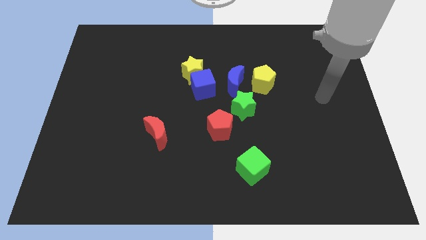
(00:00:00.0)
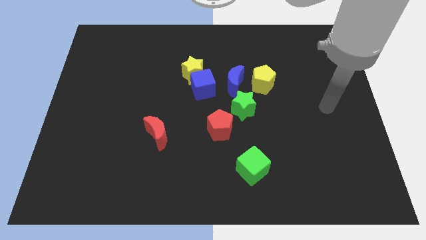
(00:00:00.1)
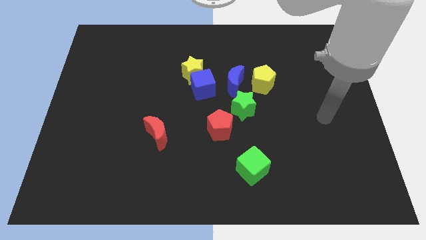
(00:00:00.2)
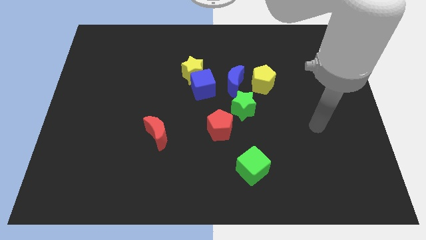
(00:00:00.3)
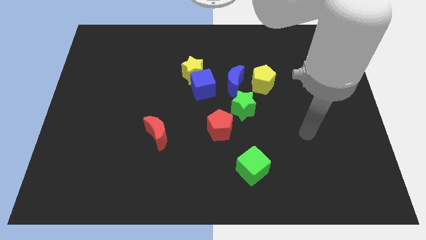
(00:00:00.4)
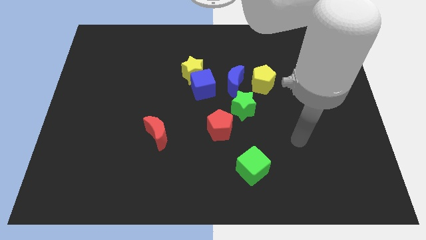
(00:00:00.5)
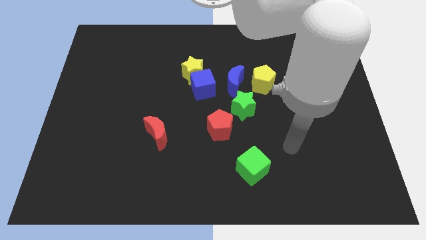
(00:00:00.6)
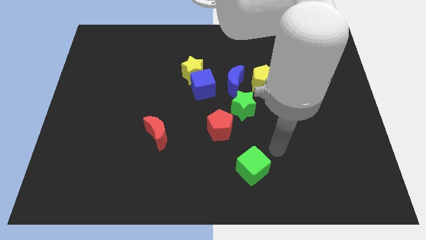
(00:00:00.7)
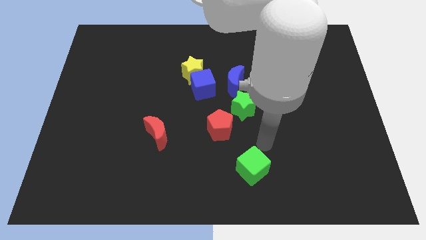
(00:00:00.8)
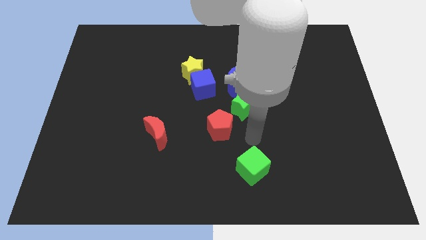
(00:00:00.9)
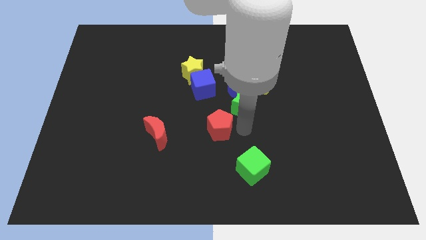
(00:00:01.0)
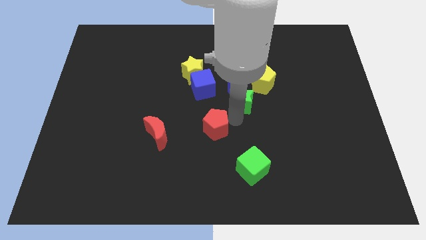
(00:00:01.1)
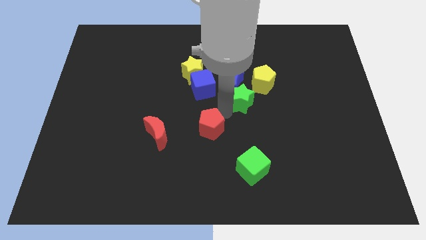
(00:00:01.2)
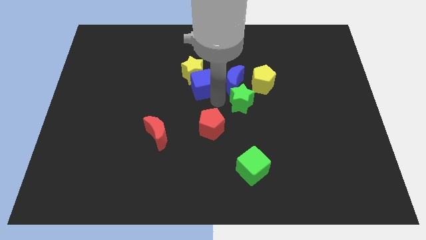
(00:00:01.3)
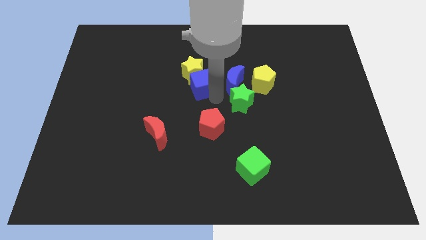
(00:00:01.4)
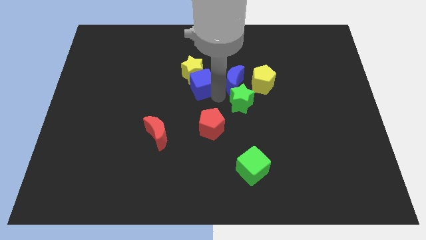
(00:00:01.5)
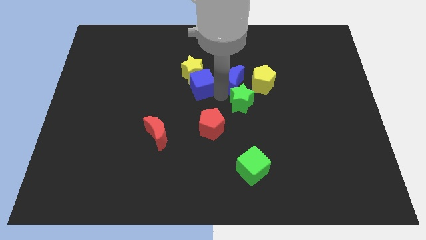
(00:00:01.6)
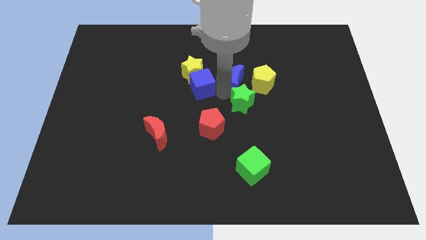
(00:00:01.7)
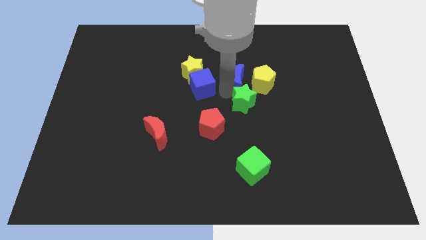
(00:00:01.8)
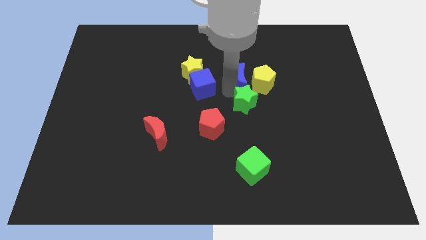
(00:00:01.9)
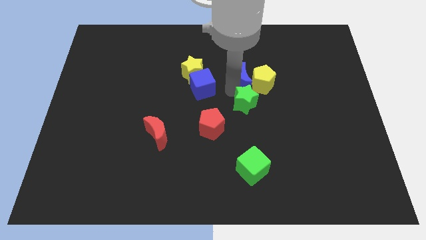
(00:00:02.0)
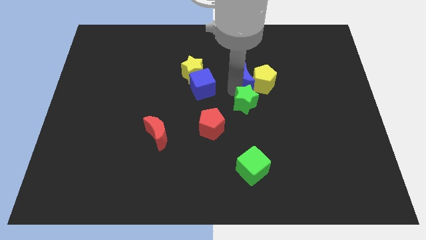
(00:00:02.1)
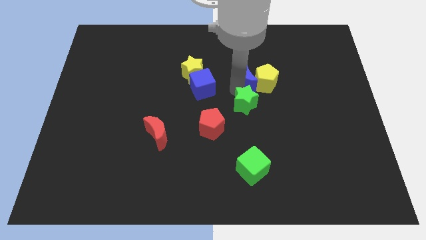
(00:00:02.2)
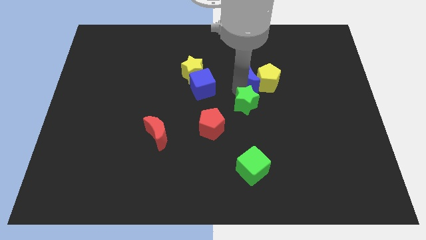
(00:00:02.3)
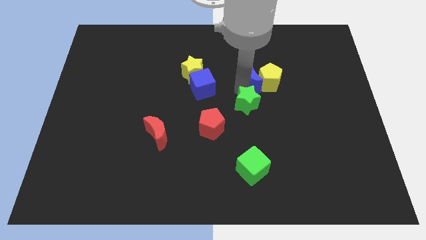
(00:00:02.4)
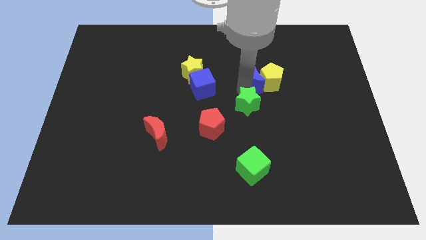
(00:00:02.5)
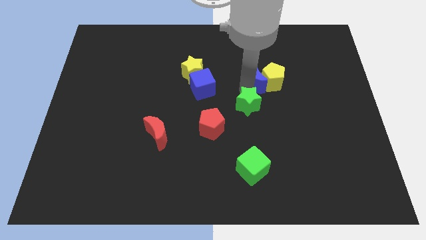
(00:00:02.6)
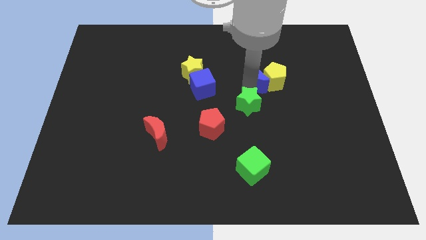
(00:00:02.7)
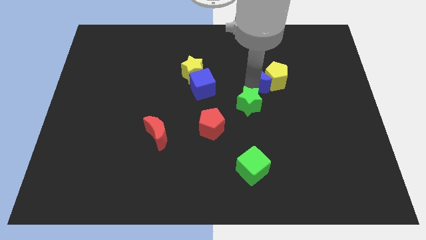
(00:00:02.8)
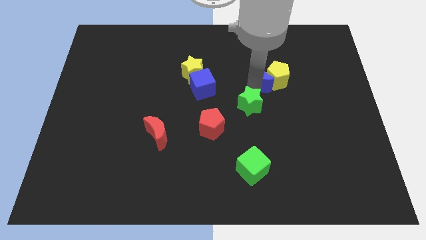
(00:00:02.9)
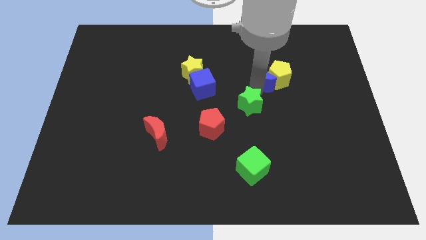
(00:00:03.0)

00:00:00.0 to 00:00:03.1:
slightly push the blue moon right

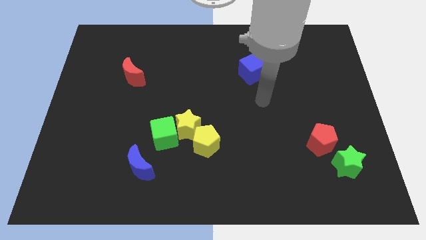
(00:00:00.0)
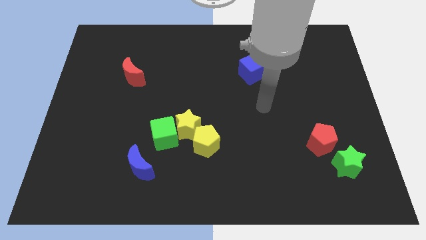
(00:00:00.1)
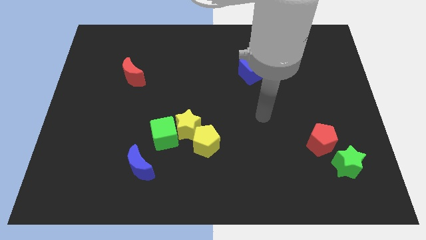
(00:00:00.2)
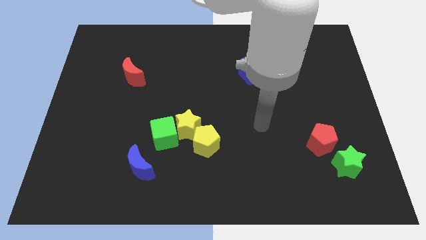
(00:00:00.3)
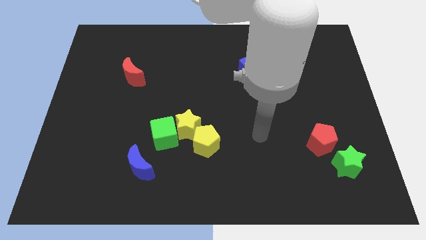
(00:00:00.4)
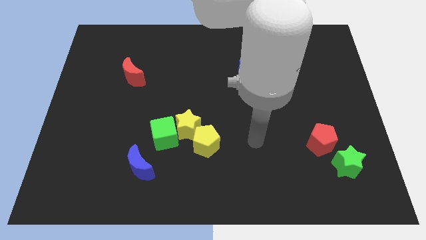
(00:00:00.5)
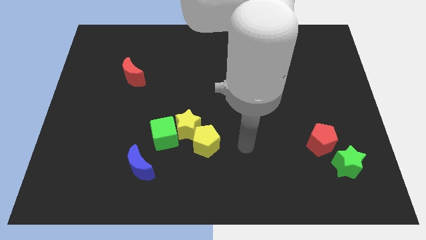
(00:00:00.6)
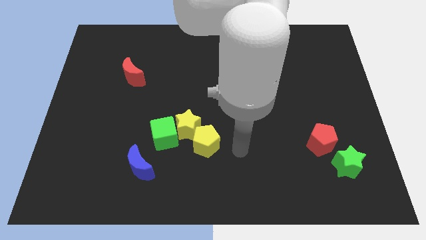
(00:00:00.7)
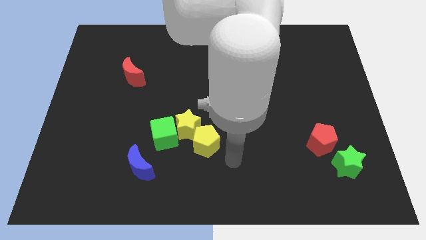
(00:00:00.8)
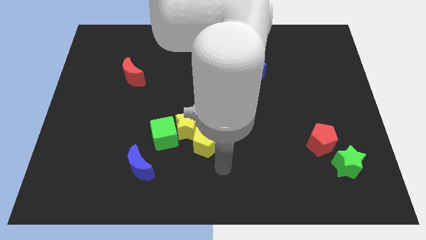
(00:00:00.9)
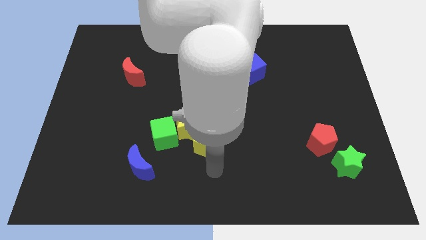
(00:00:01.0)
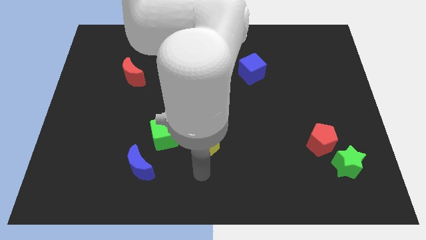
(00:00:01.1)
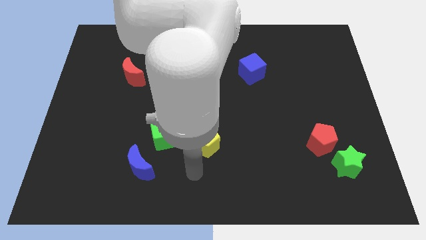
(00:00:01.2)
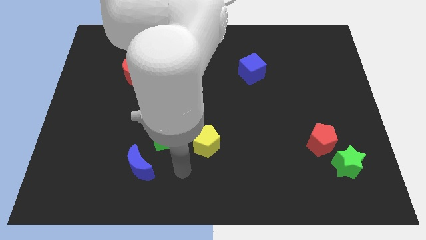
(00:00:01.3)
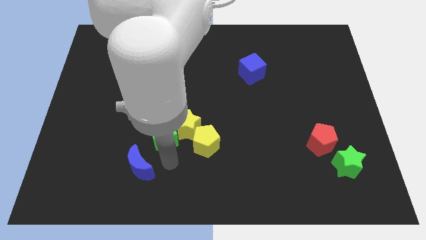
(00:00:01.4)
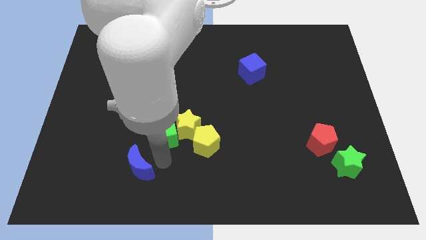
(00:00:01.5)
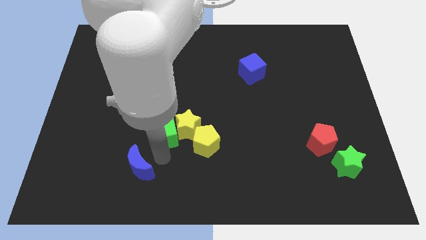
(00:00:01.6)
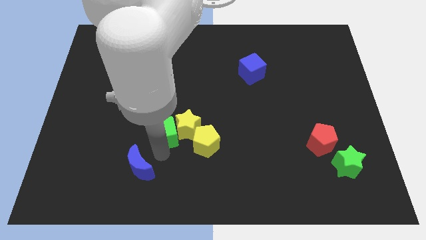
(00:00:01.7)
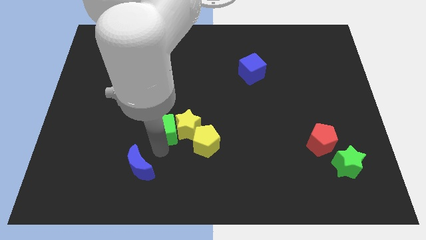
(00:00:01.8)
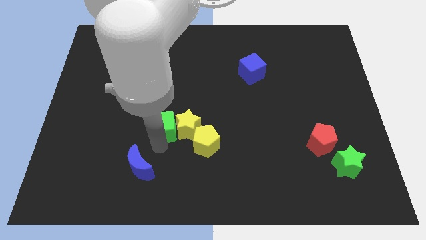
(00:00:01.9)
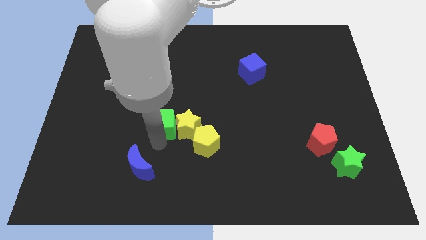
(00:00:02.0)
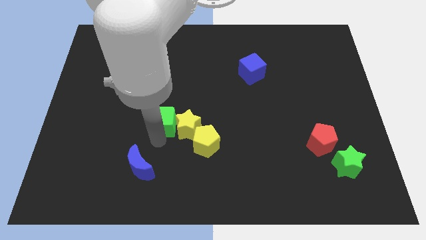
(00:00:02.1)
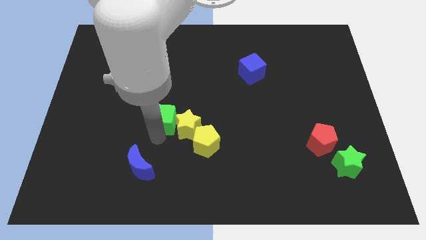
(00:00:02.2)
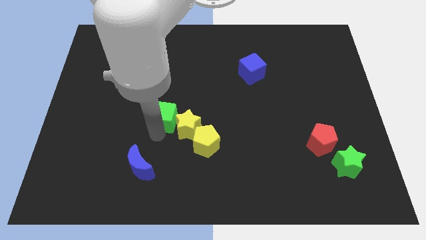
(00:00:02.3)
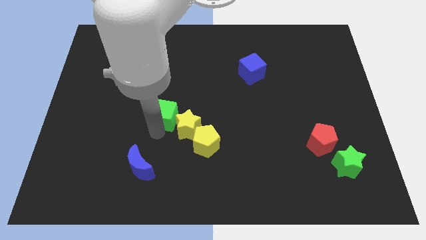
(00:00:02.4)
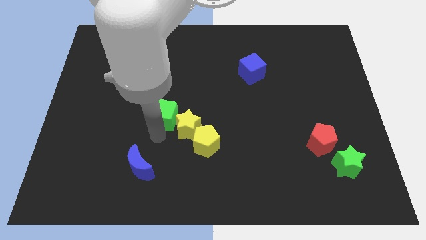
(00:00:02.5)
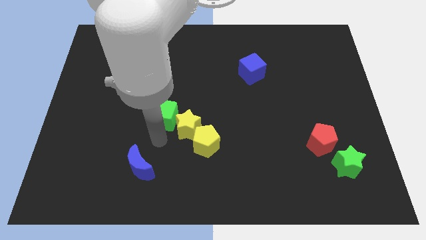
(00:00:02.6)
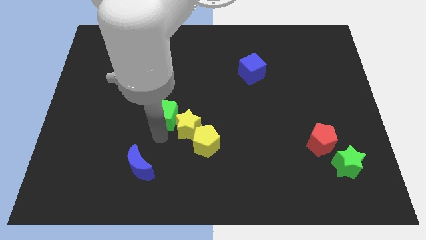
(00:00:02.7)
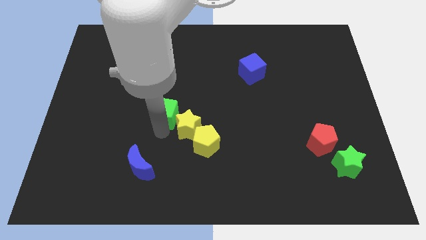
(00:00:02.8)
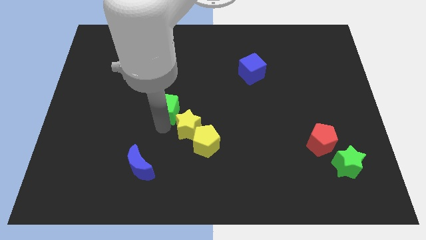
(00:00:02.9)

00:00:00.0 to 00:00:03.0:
slightly move the green cube up

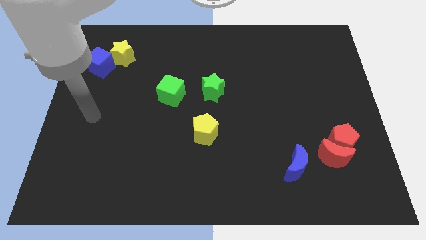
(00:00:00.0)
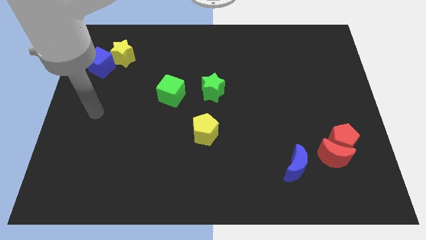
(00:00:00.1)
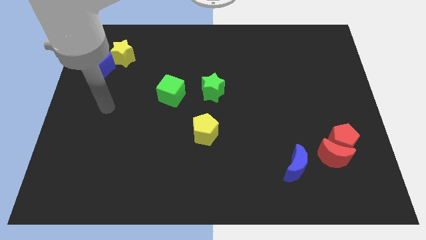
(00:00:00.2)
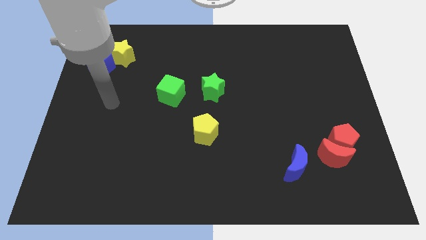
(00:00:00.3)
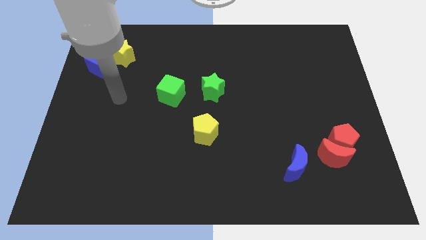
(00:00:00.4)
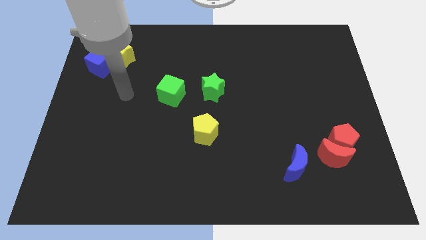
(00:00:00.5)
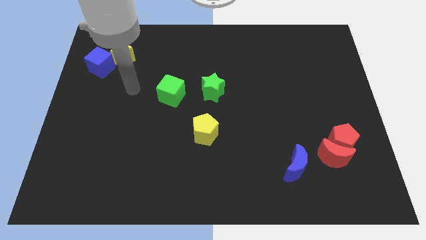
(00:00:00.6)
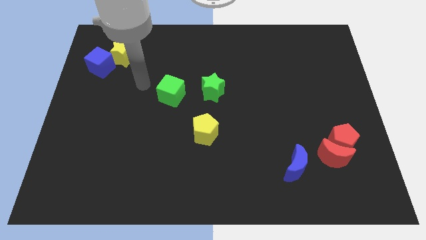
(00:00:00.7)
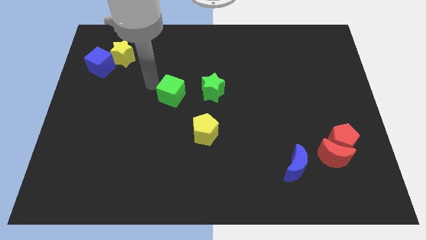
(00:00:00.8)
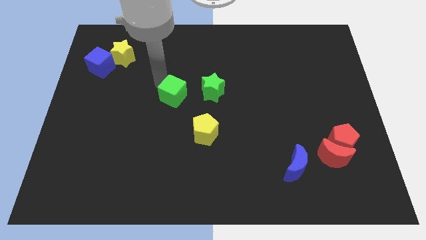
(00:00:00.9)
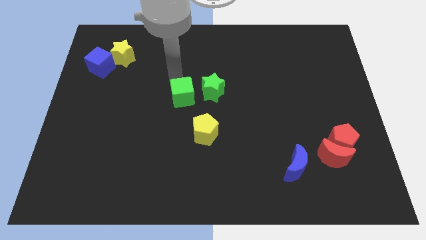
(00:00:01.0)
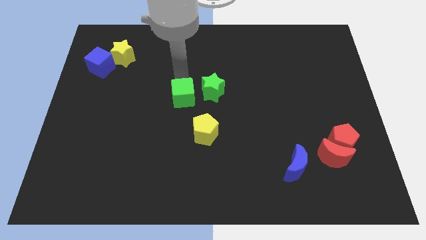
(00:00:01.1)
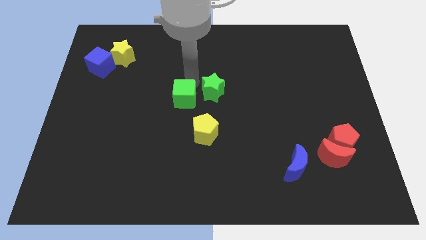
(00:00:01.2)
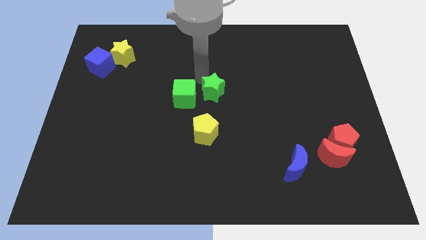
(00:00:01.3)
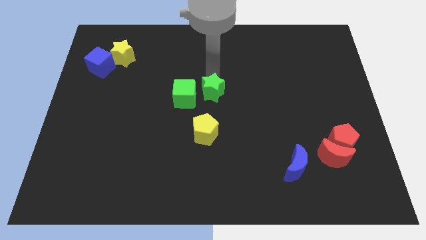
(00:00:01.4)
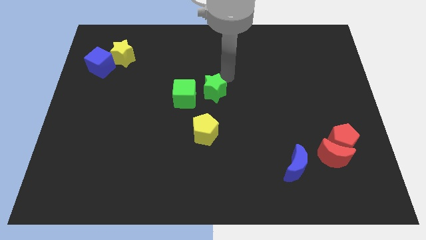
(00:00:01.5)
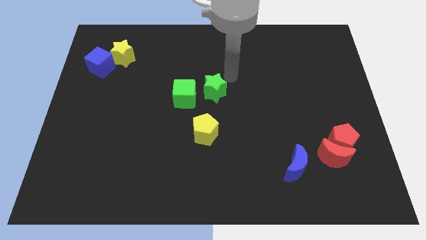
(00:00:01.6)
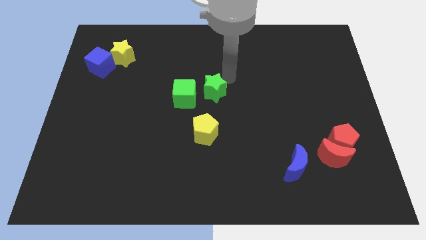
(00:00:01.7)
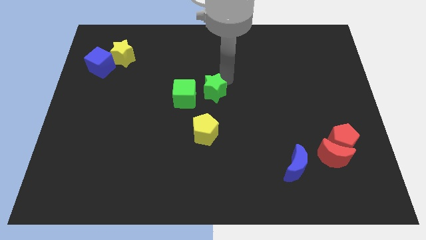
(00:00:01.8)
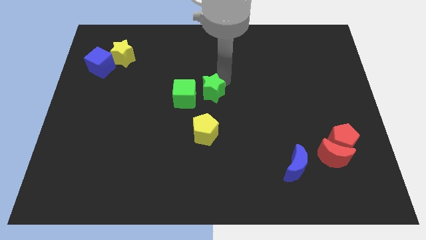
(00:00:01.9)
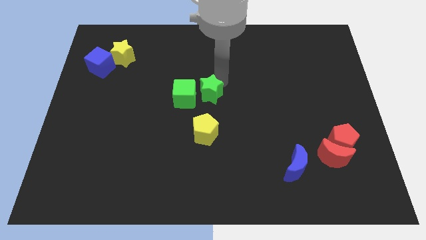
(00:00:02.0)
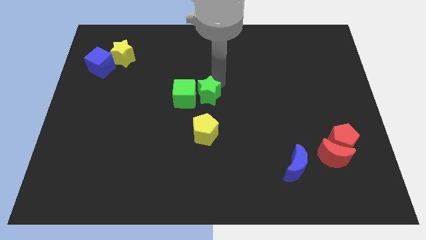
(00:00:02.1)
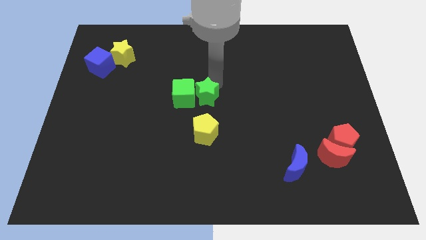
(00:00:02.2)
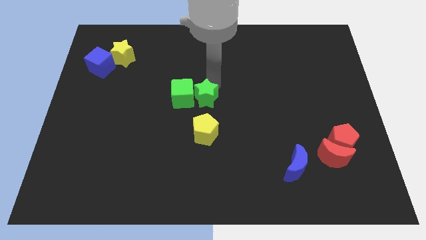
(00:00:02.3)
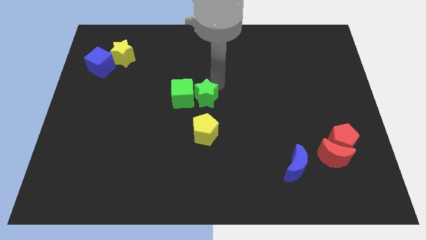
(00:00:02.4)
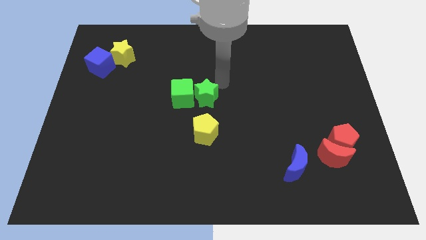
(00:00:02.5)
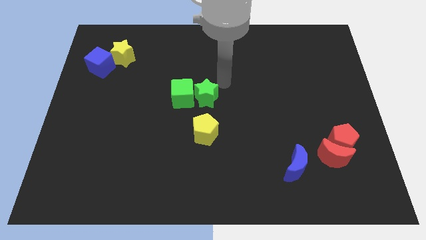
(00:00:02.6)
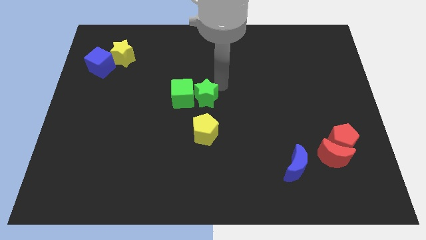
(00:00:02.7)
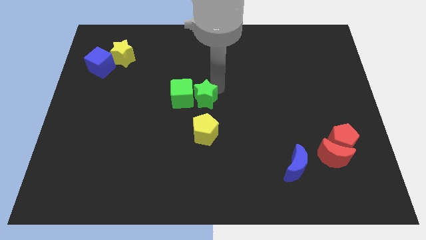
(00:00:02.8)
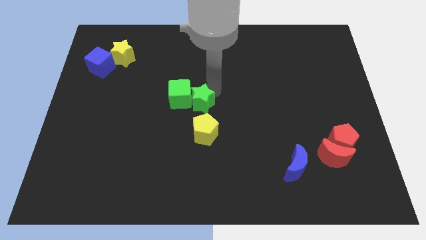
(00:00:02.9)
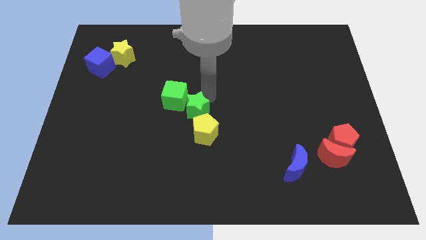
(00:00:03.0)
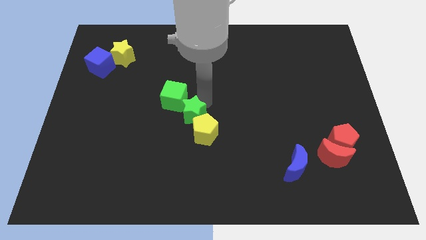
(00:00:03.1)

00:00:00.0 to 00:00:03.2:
slide the green star down and to the left diagonally somewhat
